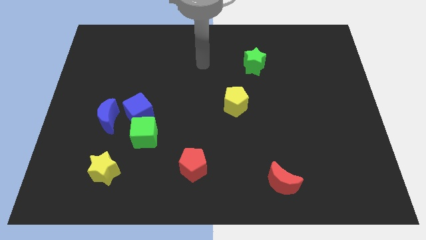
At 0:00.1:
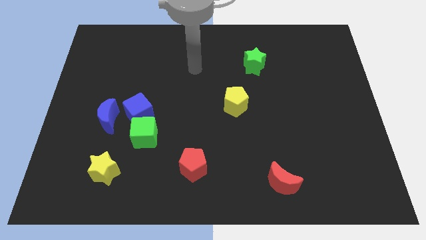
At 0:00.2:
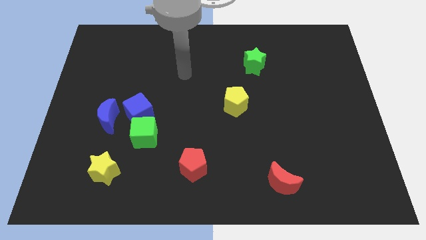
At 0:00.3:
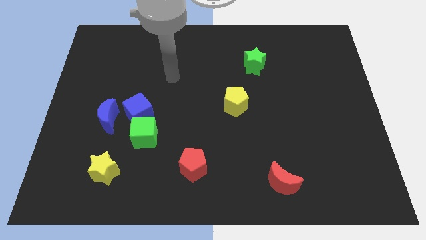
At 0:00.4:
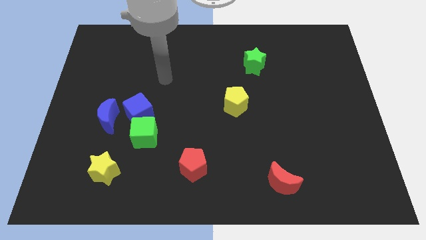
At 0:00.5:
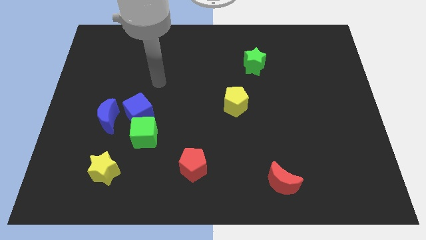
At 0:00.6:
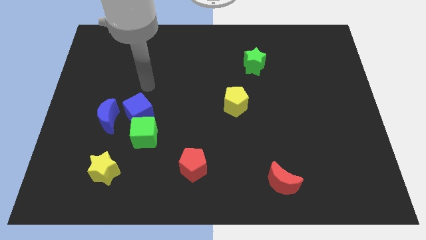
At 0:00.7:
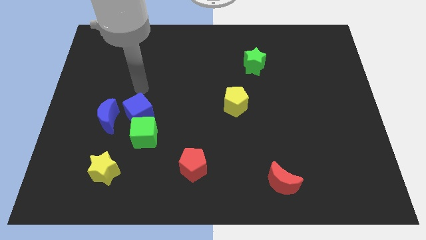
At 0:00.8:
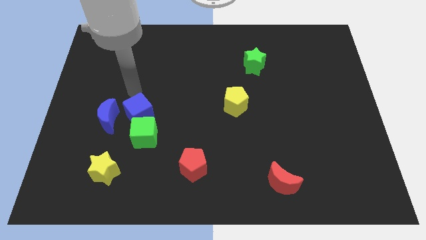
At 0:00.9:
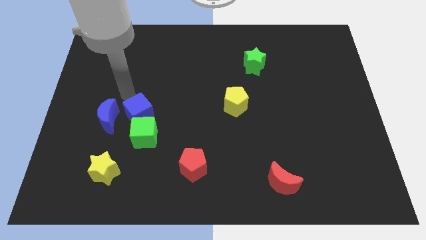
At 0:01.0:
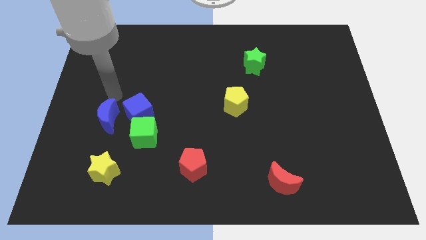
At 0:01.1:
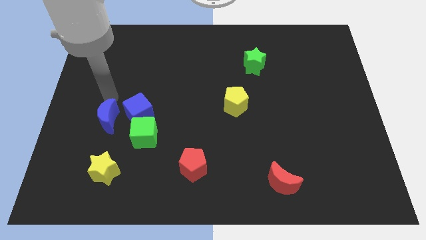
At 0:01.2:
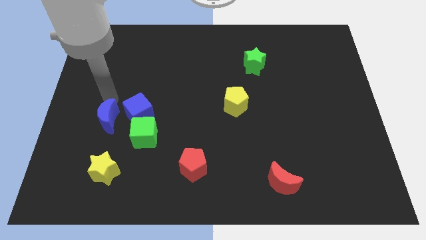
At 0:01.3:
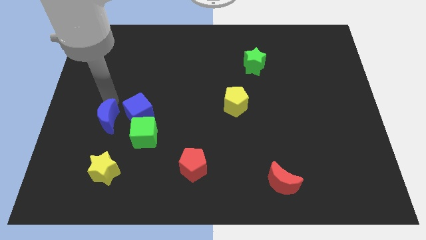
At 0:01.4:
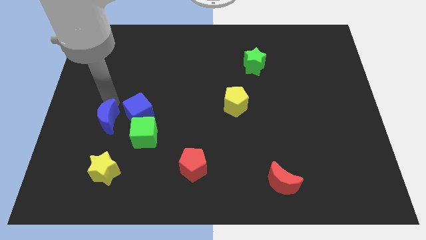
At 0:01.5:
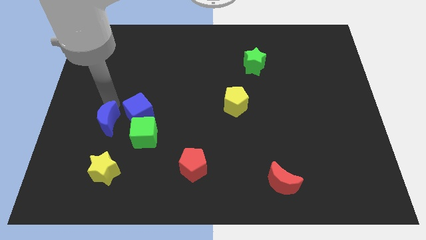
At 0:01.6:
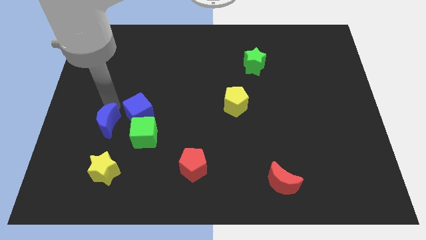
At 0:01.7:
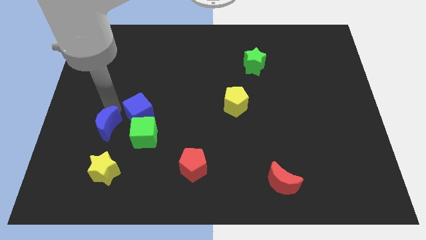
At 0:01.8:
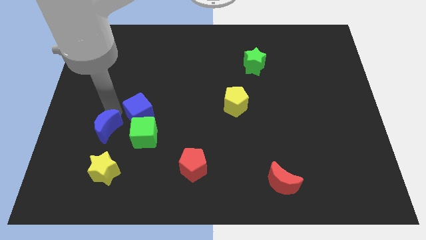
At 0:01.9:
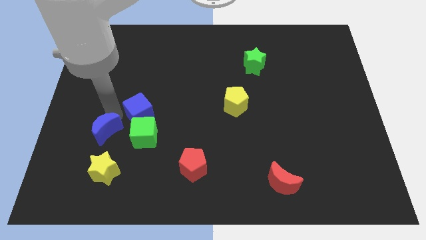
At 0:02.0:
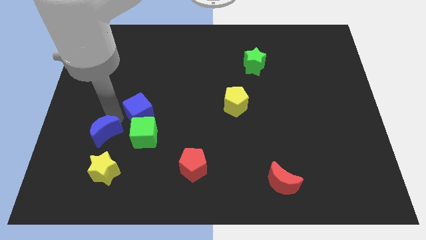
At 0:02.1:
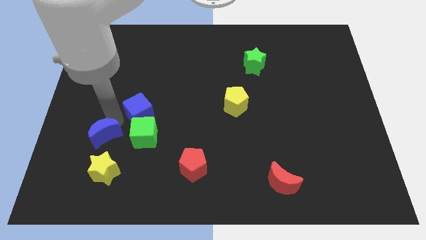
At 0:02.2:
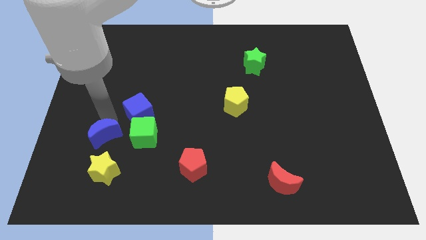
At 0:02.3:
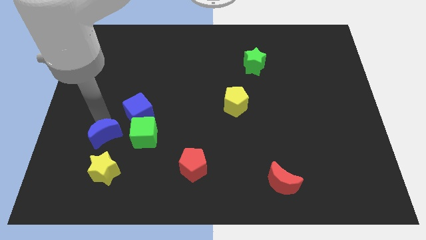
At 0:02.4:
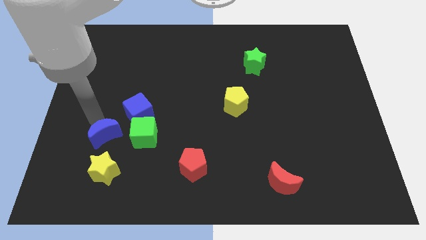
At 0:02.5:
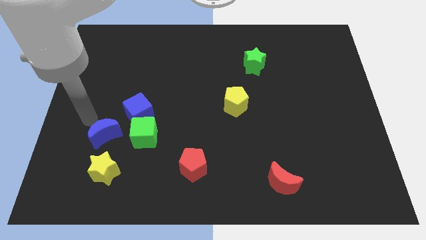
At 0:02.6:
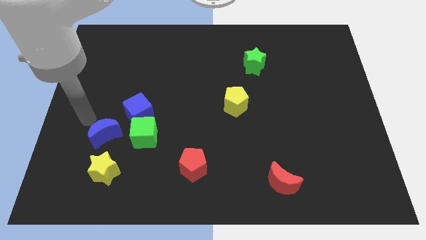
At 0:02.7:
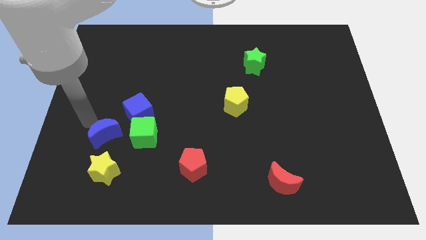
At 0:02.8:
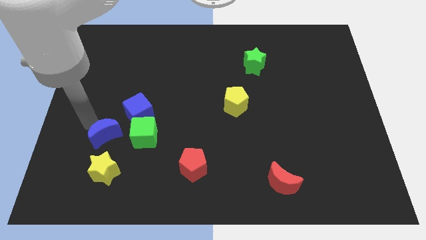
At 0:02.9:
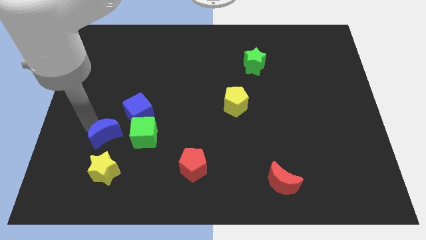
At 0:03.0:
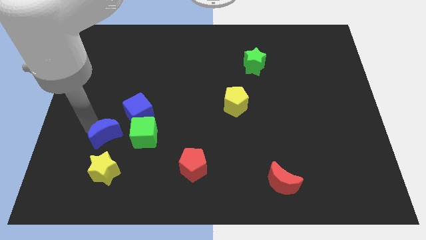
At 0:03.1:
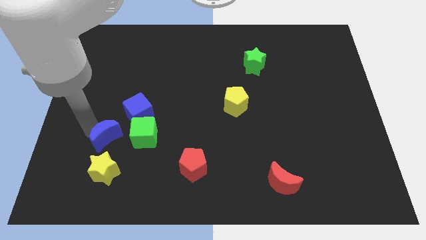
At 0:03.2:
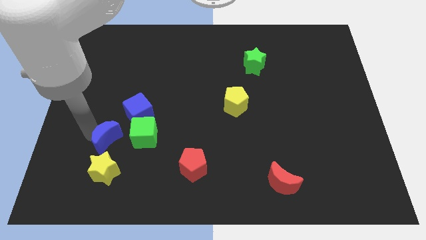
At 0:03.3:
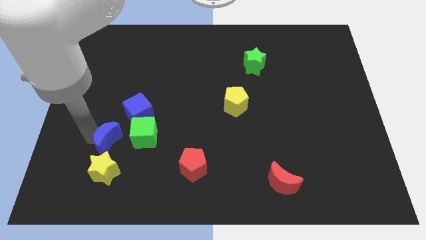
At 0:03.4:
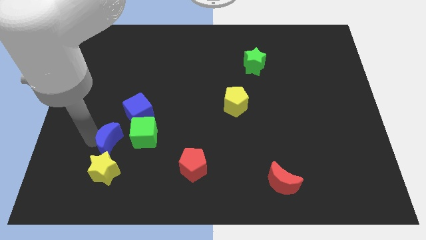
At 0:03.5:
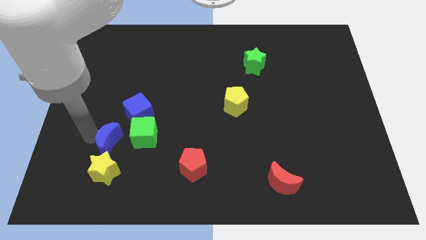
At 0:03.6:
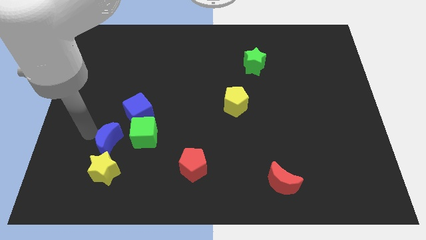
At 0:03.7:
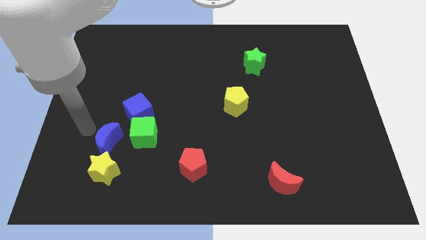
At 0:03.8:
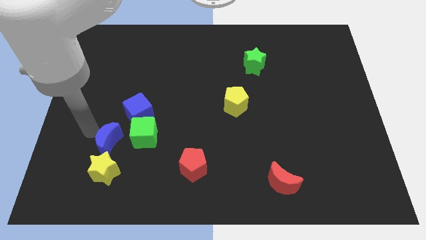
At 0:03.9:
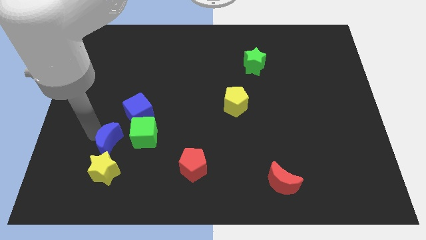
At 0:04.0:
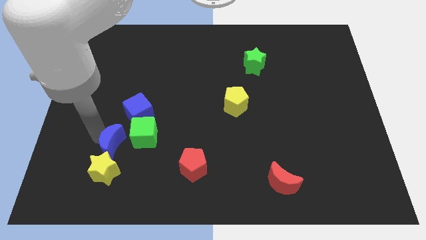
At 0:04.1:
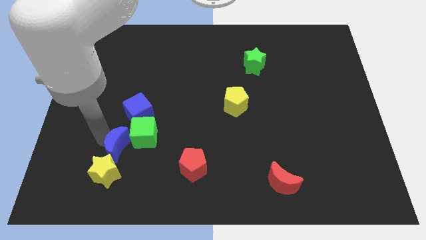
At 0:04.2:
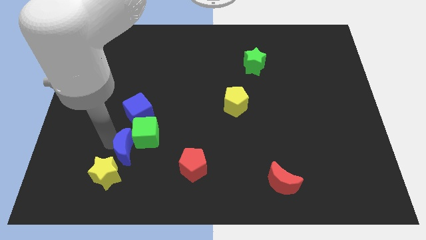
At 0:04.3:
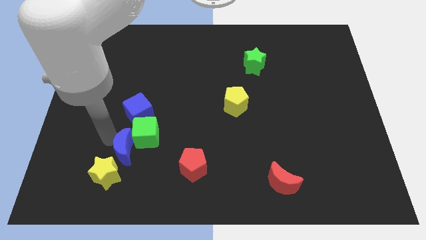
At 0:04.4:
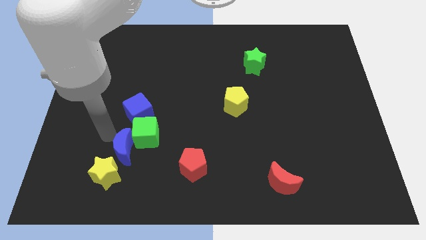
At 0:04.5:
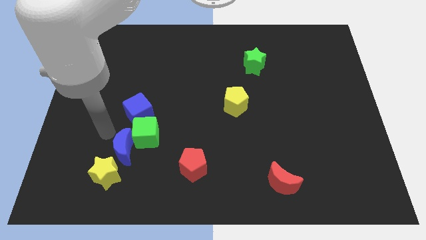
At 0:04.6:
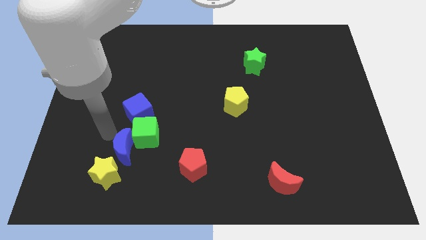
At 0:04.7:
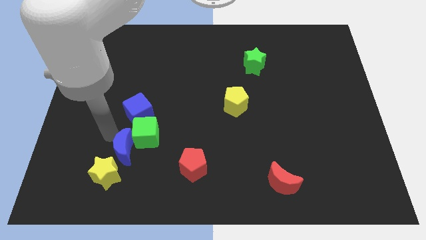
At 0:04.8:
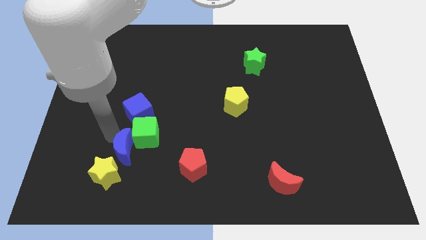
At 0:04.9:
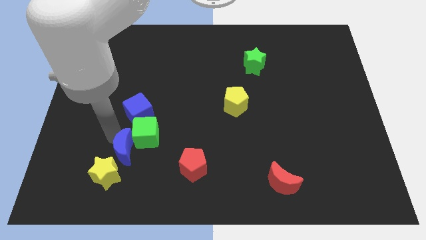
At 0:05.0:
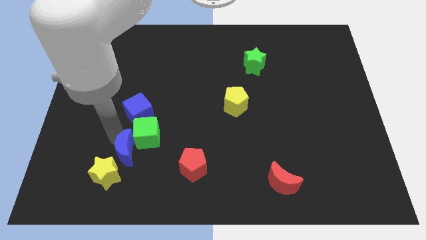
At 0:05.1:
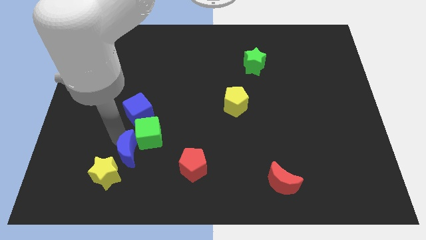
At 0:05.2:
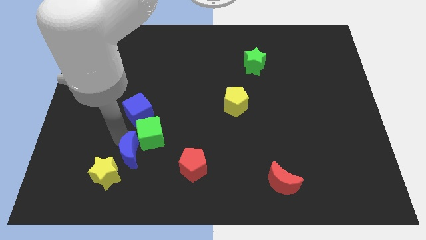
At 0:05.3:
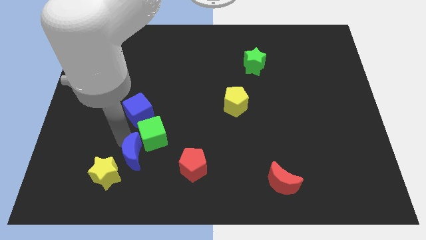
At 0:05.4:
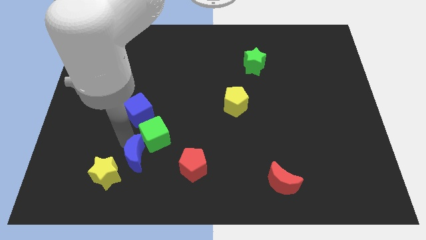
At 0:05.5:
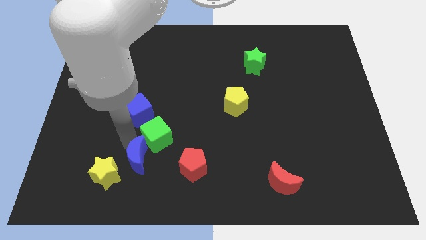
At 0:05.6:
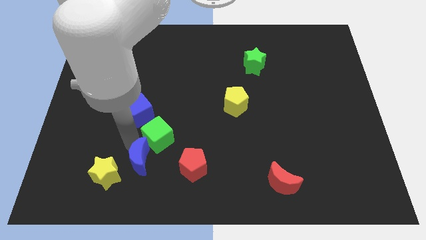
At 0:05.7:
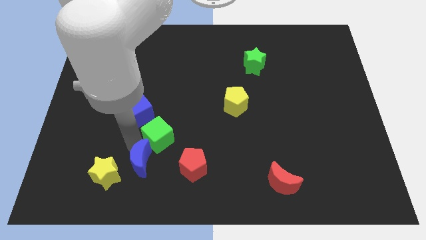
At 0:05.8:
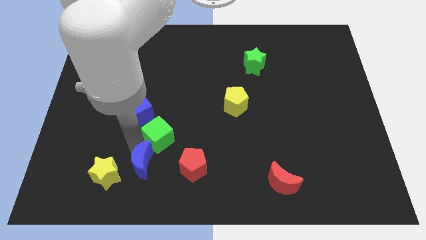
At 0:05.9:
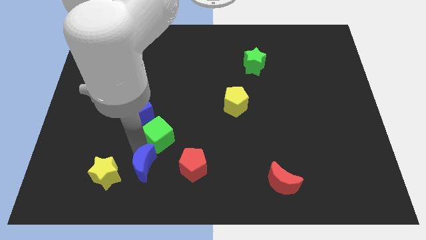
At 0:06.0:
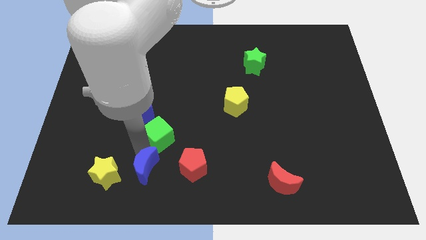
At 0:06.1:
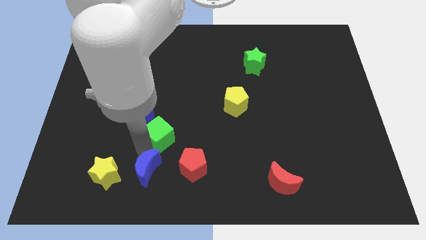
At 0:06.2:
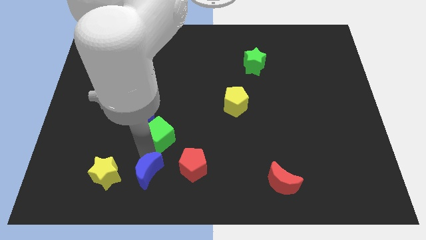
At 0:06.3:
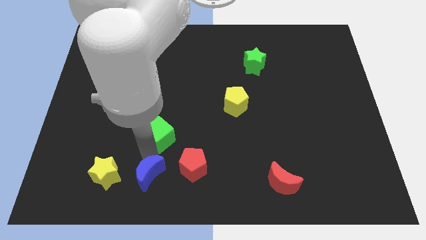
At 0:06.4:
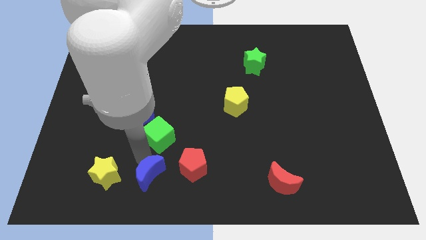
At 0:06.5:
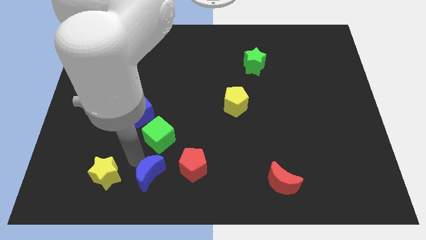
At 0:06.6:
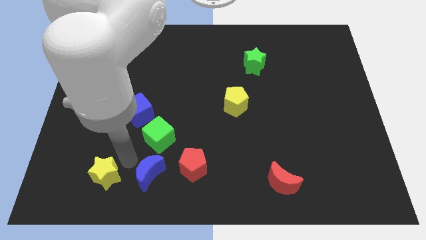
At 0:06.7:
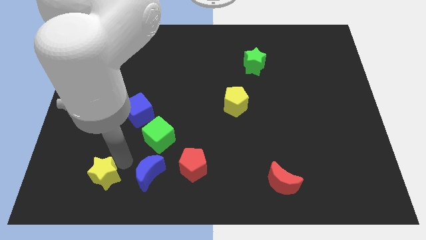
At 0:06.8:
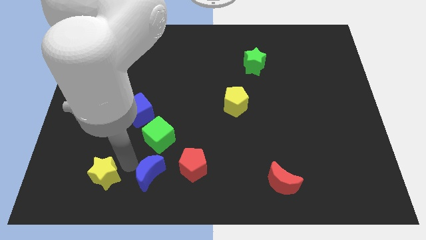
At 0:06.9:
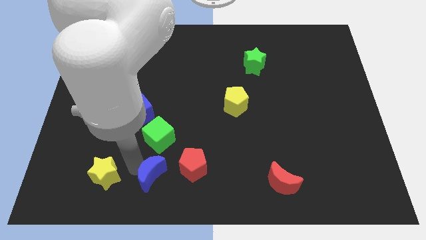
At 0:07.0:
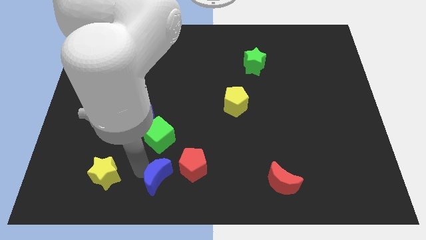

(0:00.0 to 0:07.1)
put the blue moon to the bottom side
